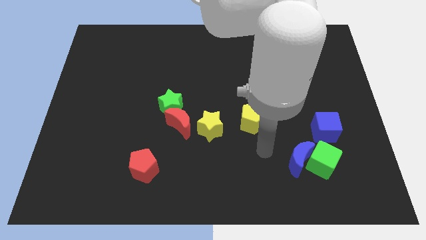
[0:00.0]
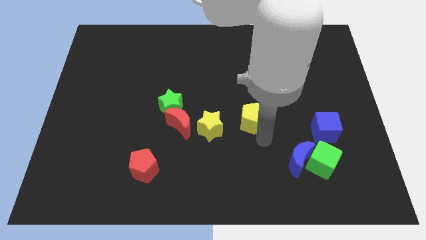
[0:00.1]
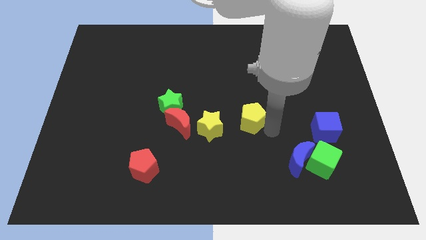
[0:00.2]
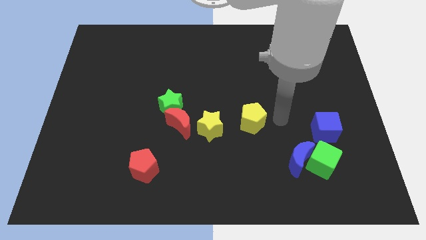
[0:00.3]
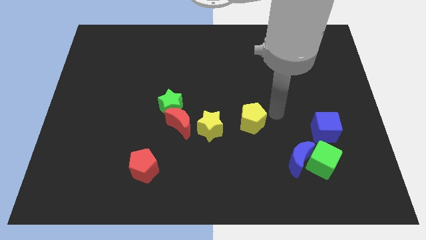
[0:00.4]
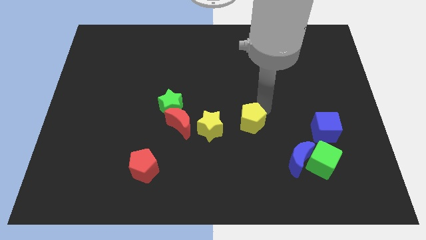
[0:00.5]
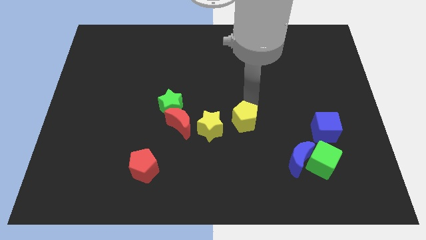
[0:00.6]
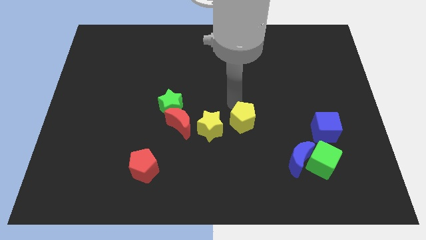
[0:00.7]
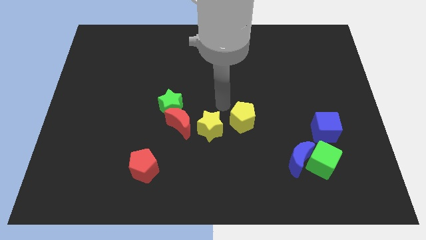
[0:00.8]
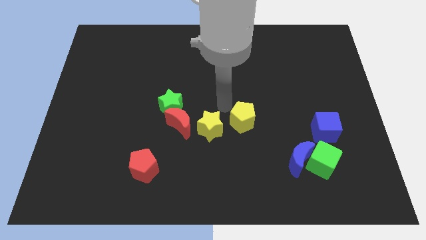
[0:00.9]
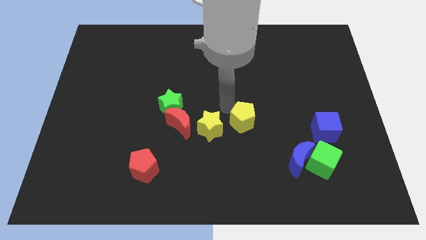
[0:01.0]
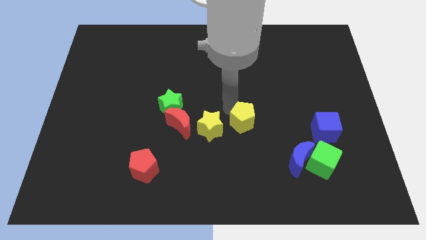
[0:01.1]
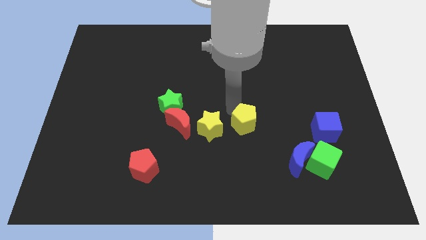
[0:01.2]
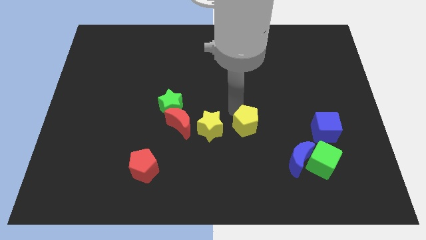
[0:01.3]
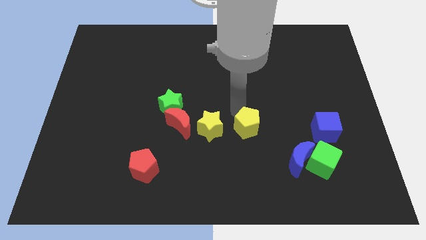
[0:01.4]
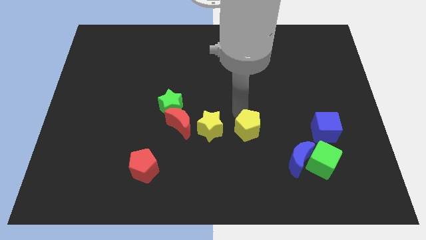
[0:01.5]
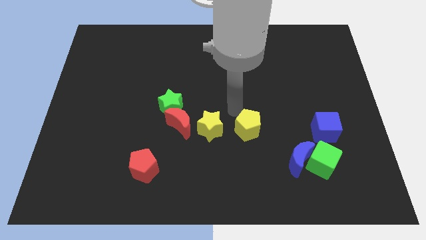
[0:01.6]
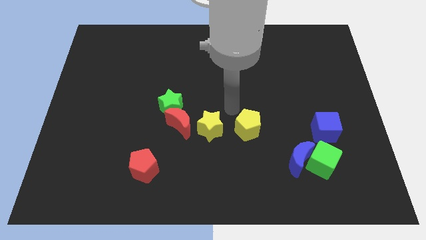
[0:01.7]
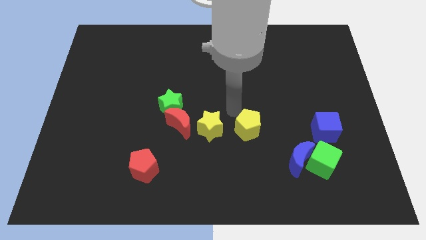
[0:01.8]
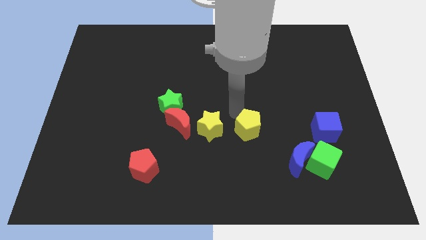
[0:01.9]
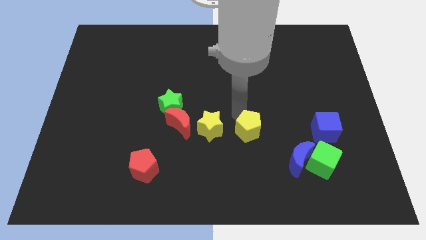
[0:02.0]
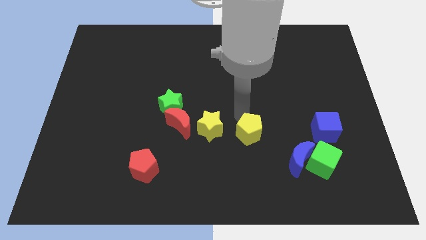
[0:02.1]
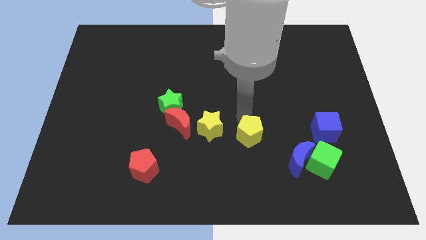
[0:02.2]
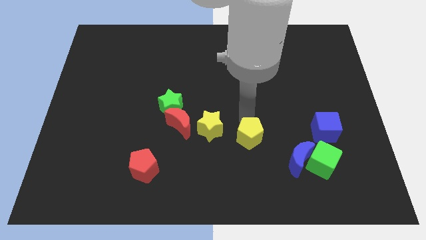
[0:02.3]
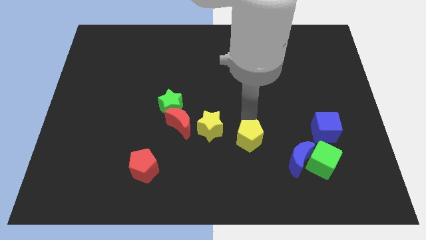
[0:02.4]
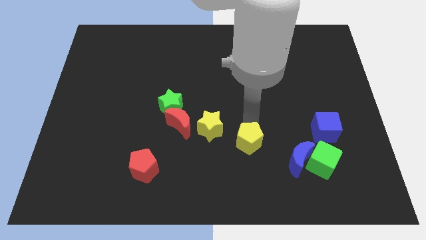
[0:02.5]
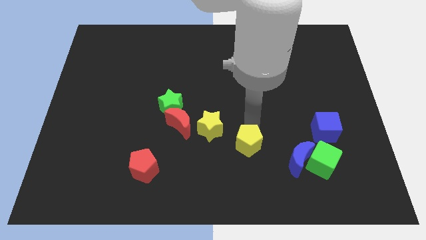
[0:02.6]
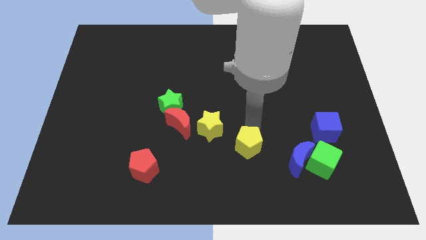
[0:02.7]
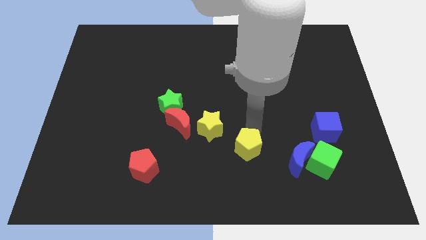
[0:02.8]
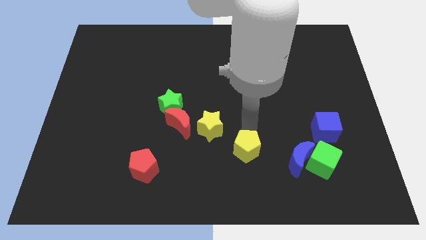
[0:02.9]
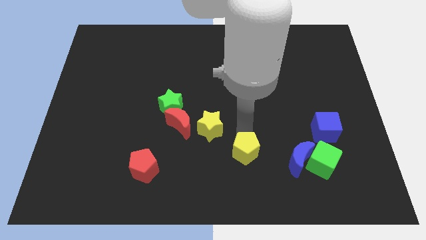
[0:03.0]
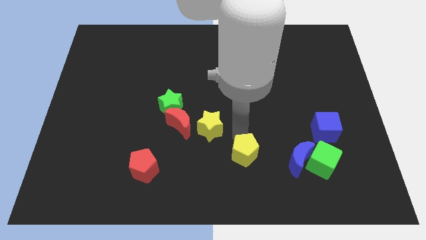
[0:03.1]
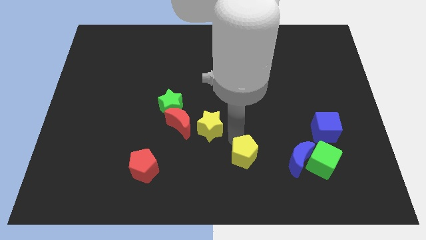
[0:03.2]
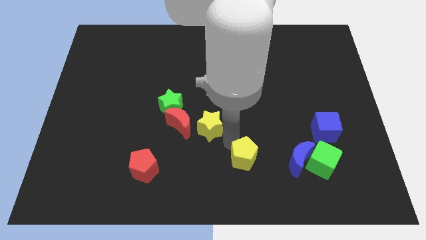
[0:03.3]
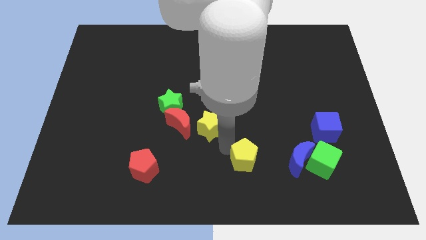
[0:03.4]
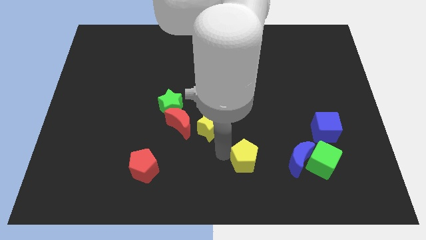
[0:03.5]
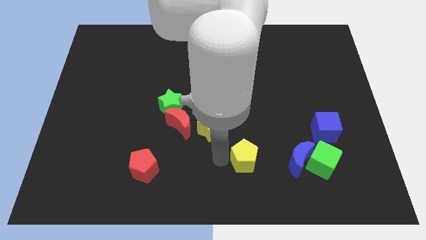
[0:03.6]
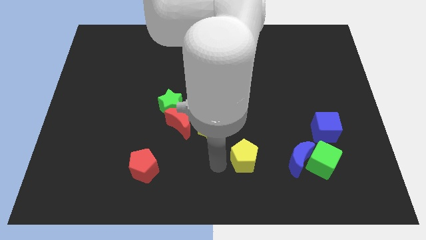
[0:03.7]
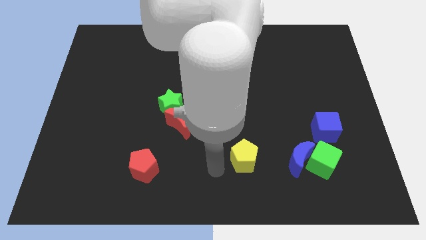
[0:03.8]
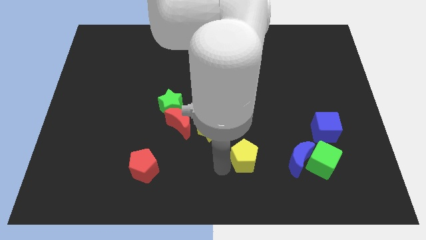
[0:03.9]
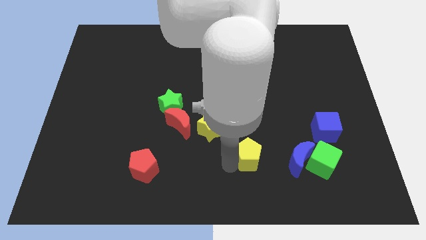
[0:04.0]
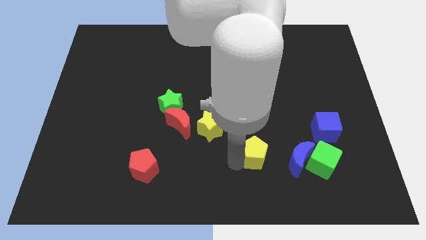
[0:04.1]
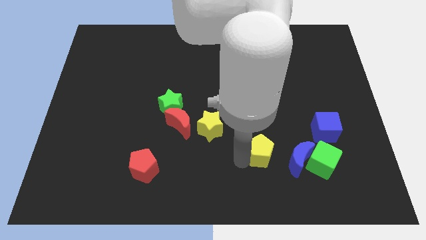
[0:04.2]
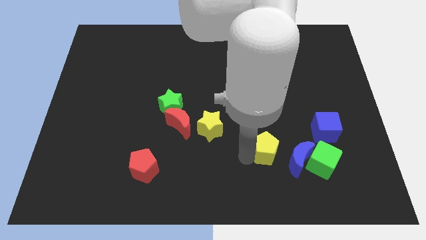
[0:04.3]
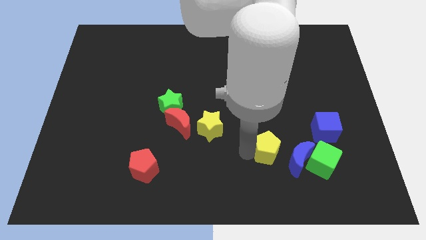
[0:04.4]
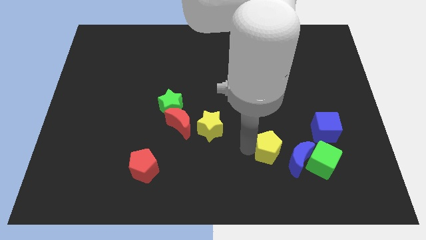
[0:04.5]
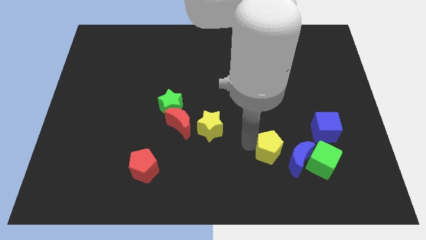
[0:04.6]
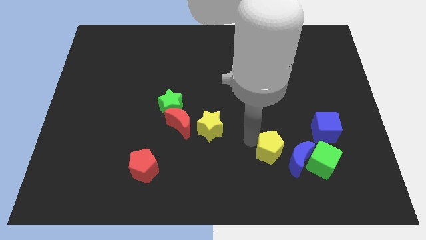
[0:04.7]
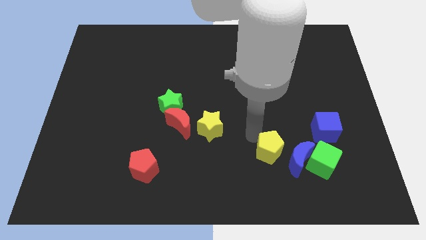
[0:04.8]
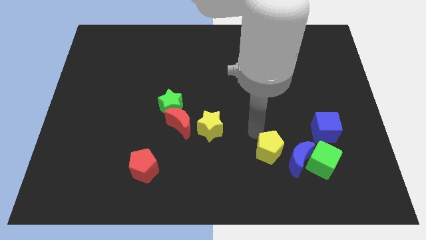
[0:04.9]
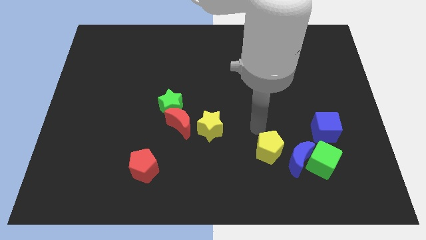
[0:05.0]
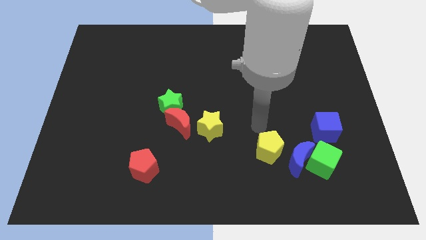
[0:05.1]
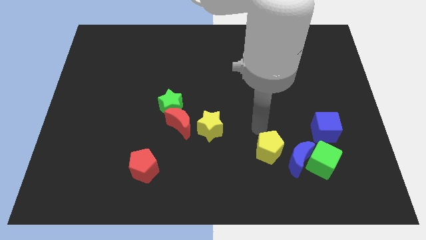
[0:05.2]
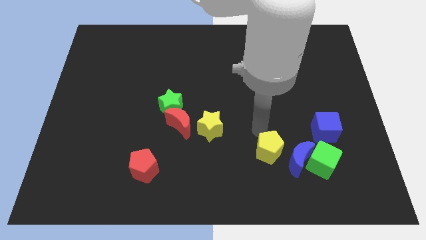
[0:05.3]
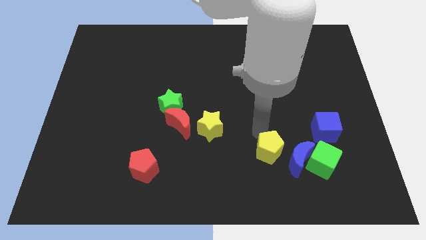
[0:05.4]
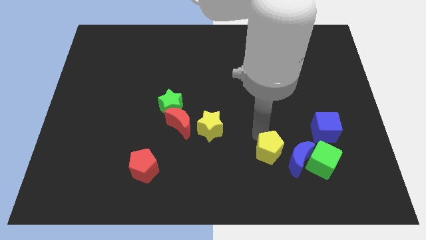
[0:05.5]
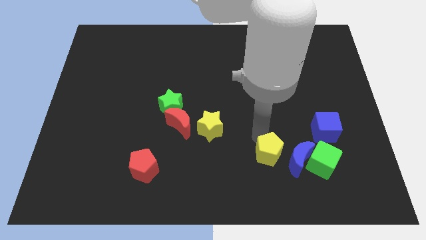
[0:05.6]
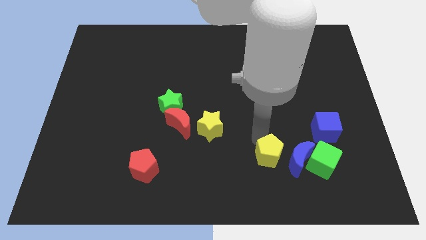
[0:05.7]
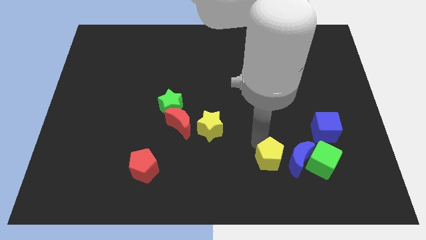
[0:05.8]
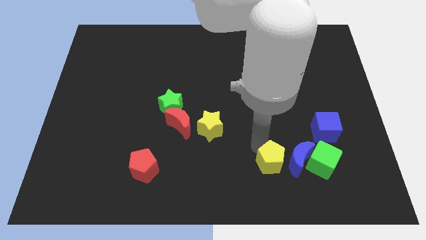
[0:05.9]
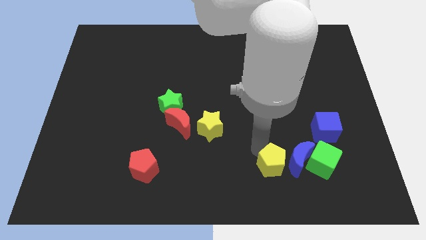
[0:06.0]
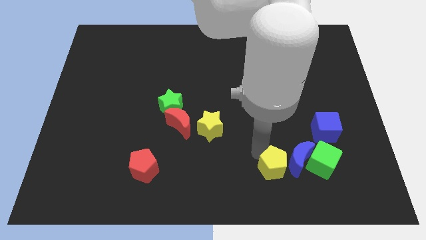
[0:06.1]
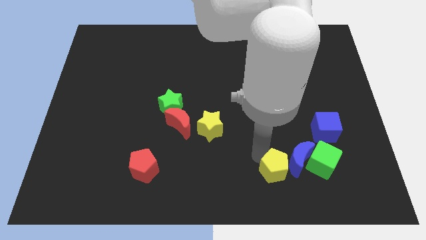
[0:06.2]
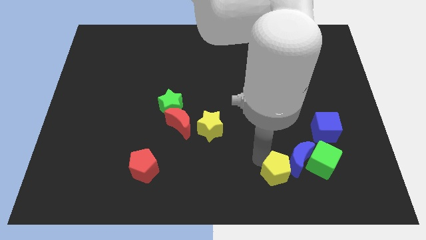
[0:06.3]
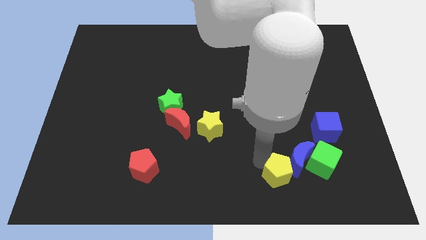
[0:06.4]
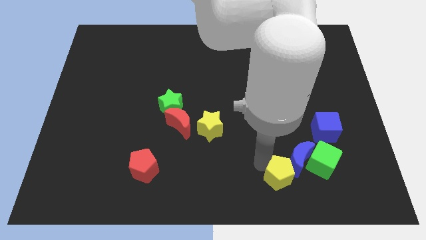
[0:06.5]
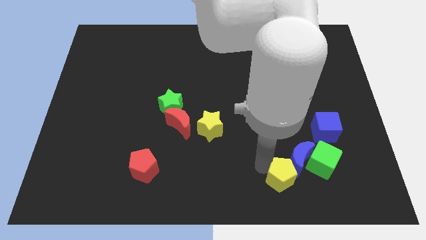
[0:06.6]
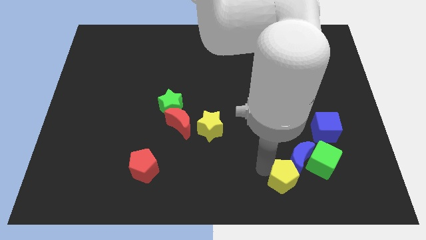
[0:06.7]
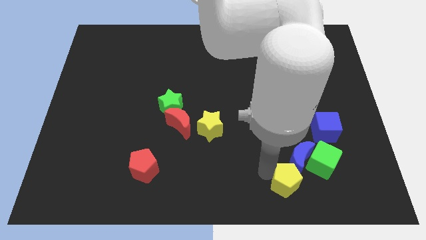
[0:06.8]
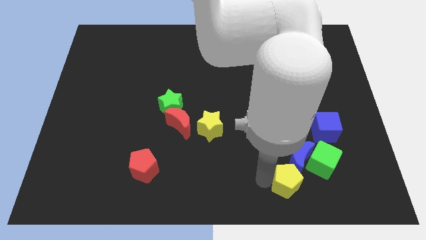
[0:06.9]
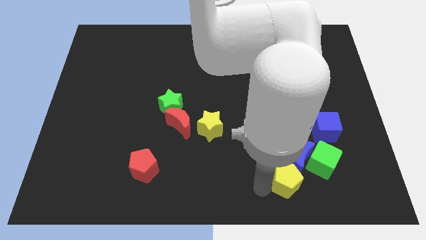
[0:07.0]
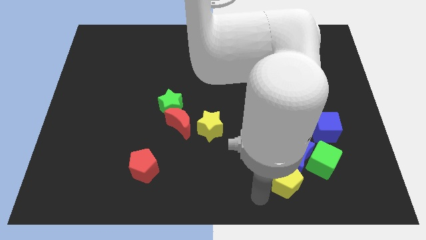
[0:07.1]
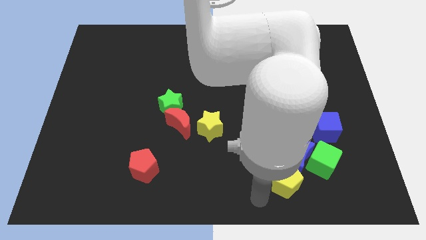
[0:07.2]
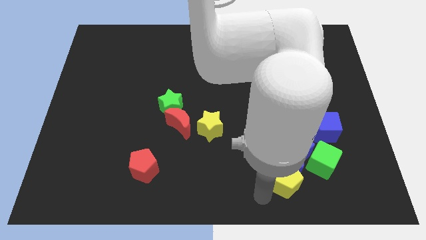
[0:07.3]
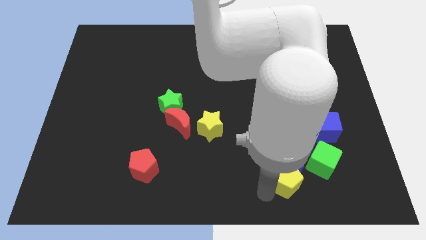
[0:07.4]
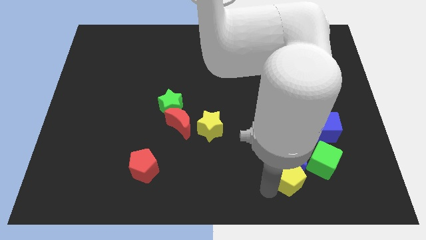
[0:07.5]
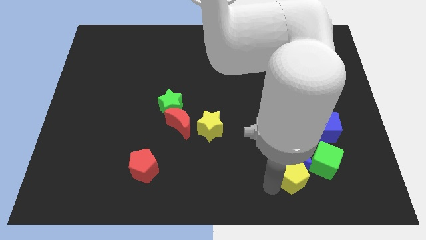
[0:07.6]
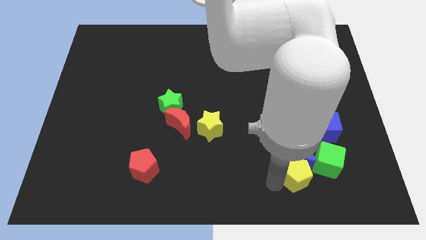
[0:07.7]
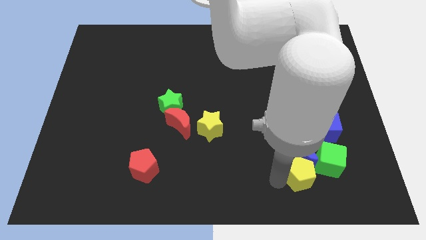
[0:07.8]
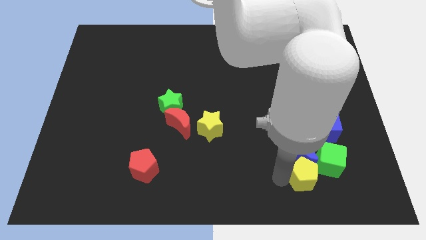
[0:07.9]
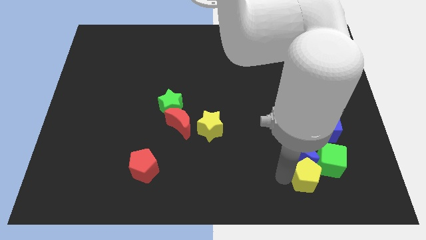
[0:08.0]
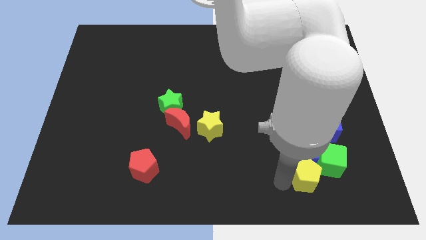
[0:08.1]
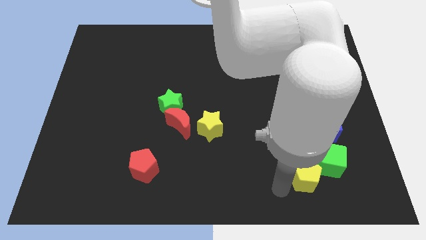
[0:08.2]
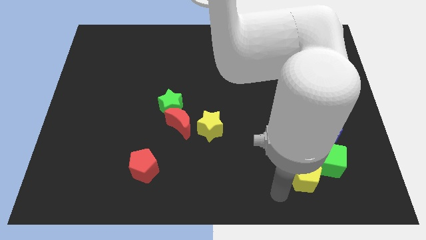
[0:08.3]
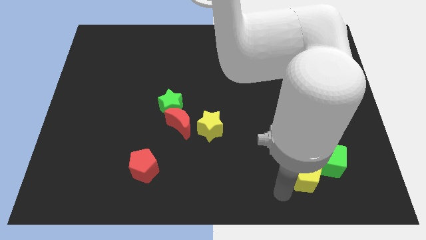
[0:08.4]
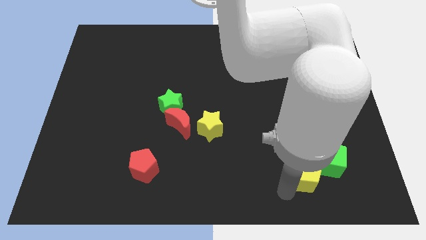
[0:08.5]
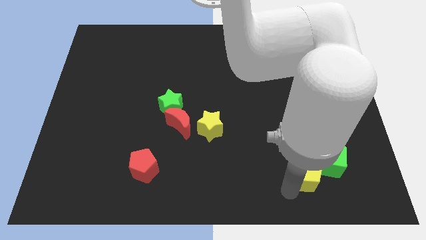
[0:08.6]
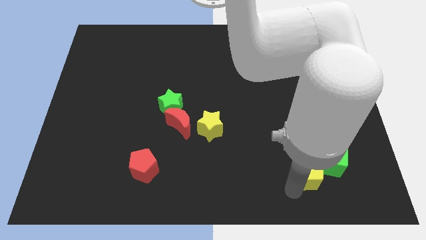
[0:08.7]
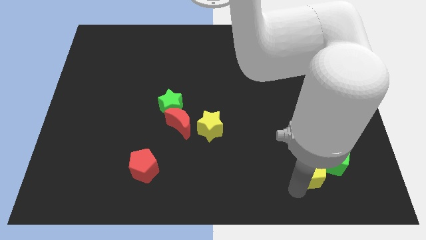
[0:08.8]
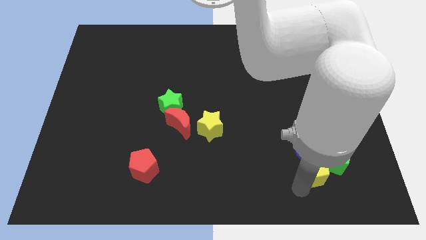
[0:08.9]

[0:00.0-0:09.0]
put the yellow pentagon towards the green cube
